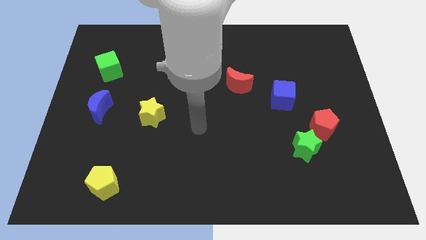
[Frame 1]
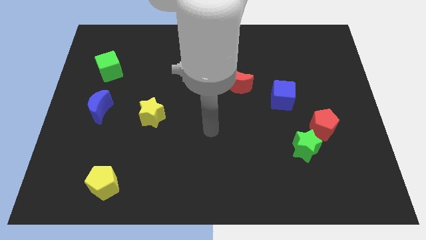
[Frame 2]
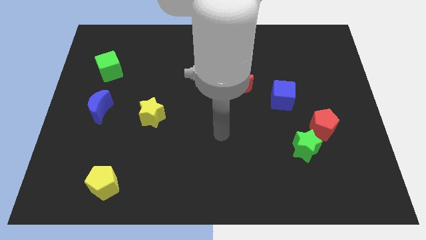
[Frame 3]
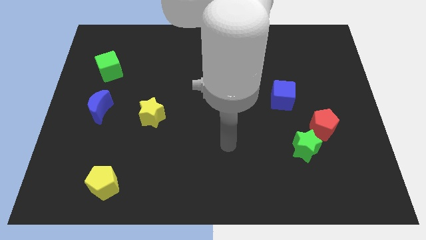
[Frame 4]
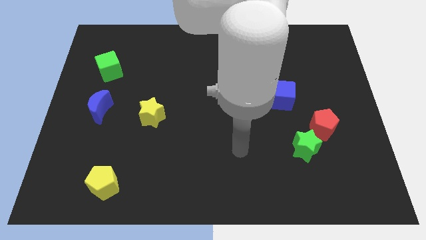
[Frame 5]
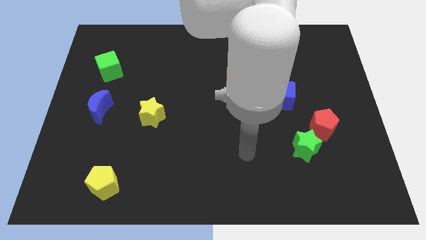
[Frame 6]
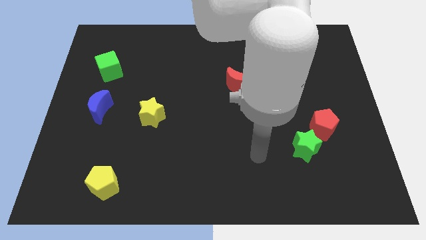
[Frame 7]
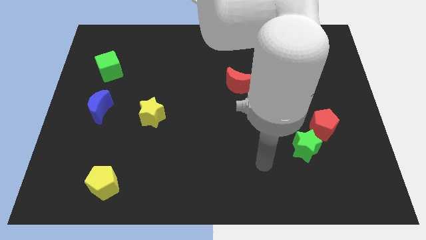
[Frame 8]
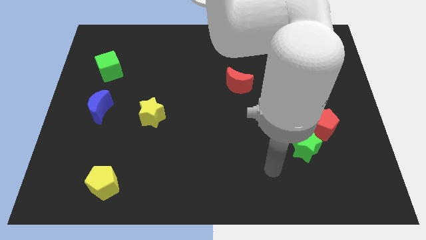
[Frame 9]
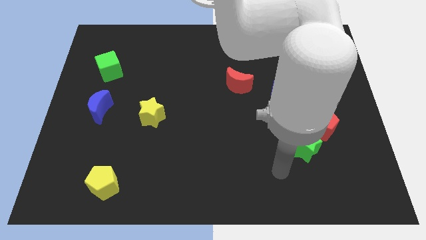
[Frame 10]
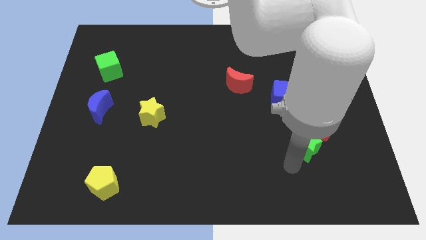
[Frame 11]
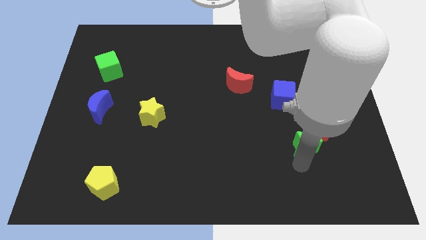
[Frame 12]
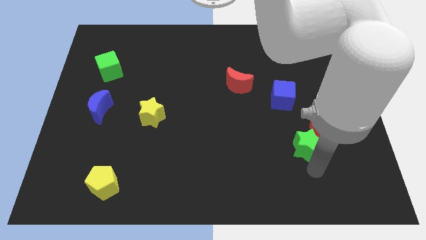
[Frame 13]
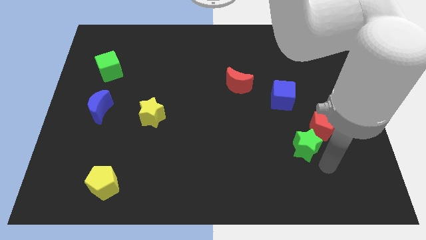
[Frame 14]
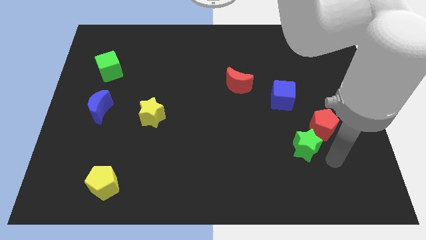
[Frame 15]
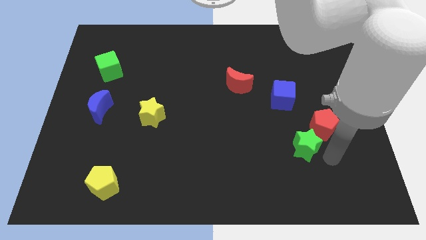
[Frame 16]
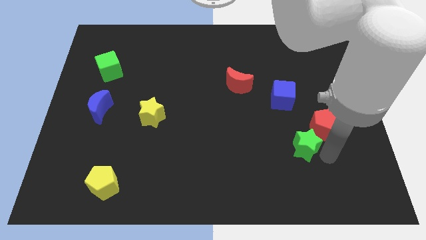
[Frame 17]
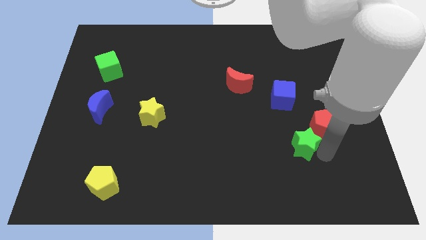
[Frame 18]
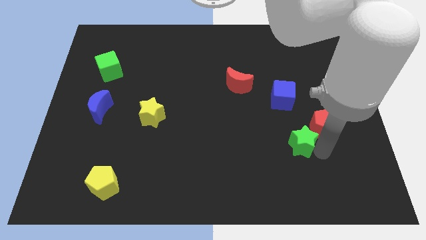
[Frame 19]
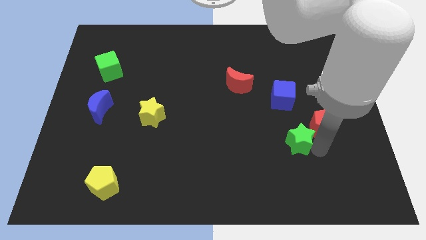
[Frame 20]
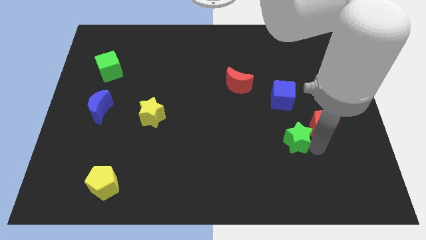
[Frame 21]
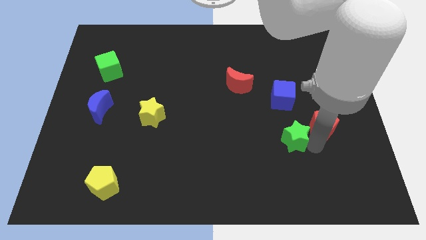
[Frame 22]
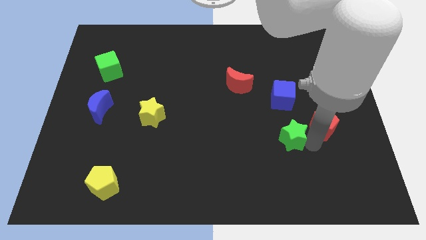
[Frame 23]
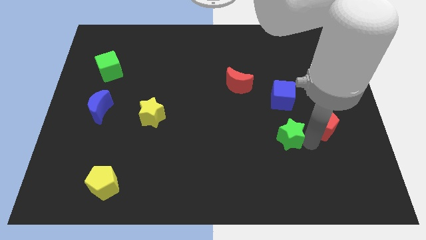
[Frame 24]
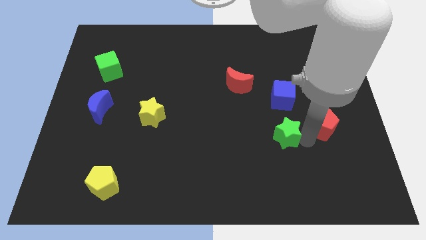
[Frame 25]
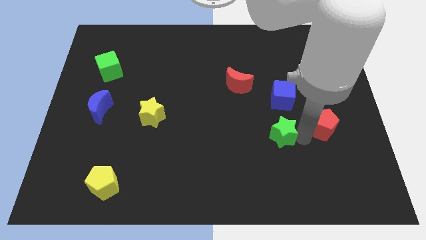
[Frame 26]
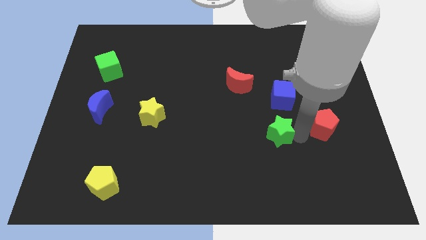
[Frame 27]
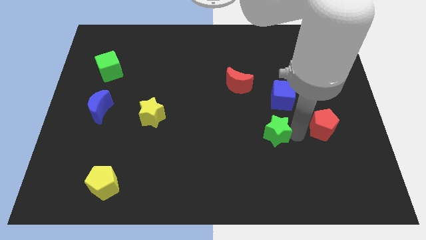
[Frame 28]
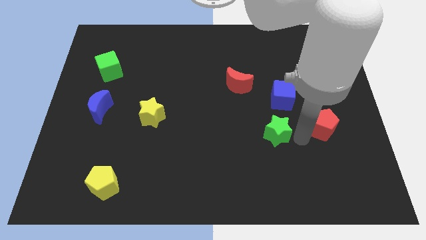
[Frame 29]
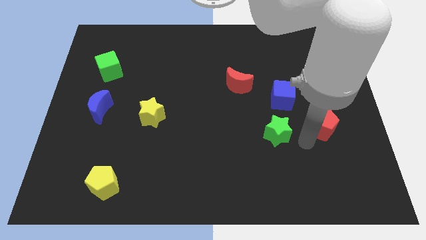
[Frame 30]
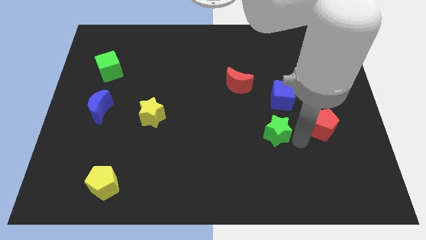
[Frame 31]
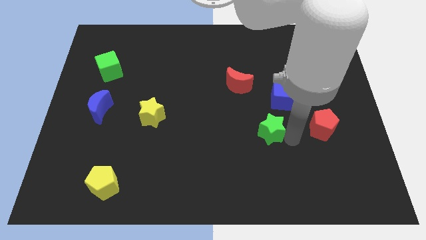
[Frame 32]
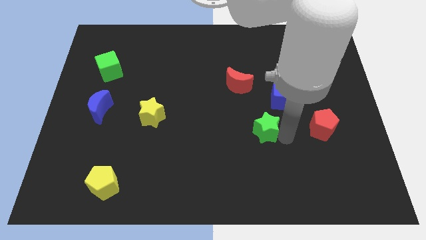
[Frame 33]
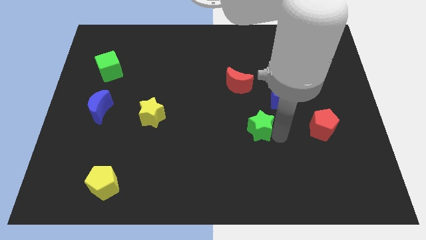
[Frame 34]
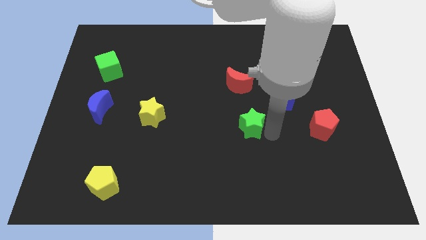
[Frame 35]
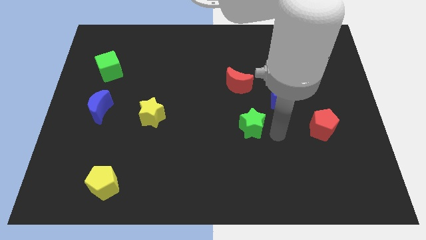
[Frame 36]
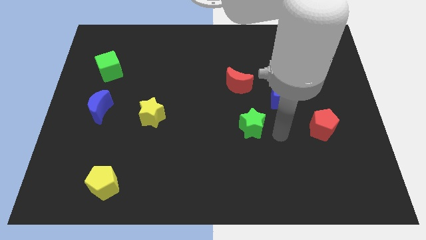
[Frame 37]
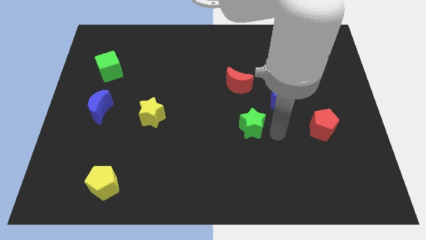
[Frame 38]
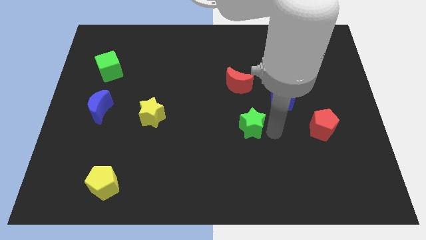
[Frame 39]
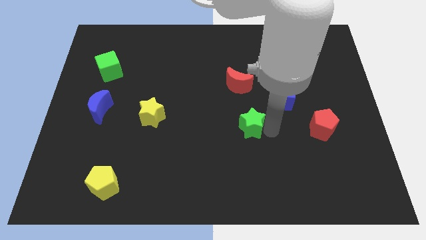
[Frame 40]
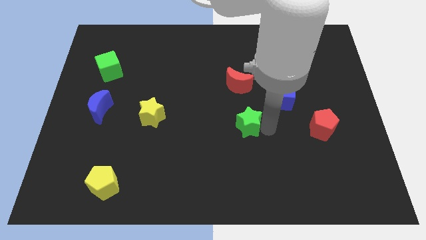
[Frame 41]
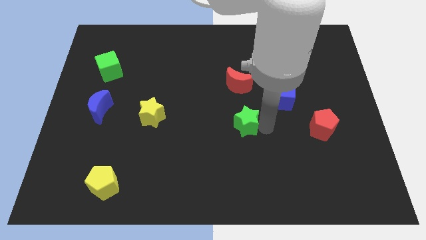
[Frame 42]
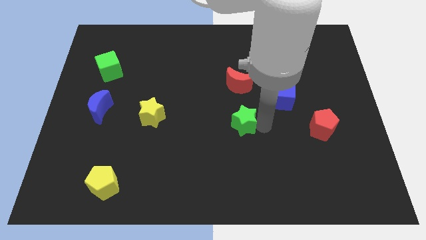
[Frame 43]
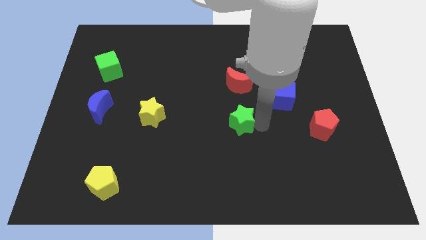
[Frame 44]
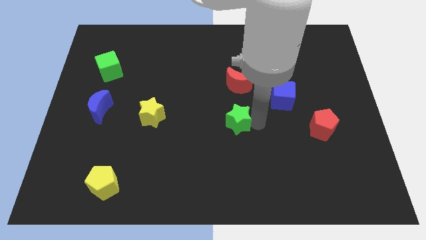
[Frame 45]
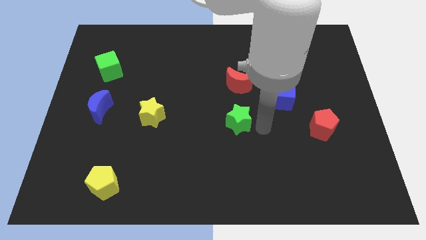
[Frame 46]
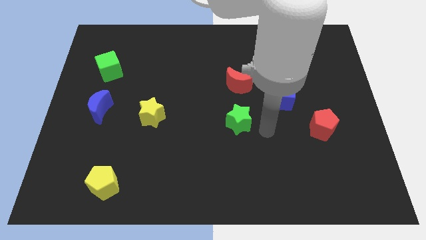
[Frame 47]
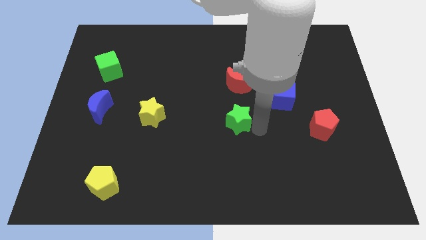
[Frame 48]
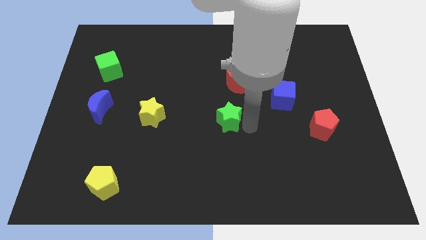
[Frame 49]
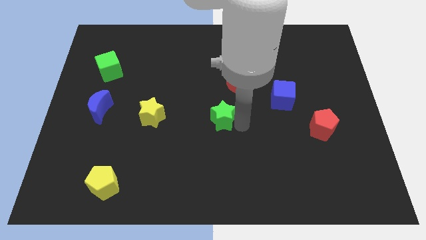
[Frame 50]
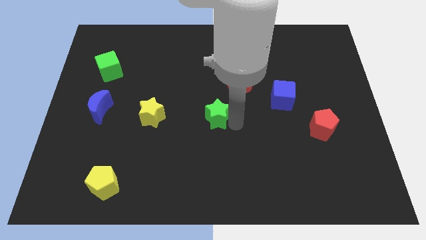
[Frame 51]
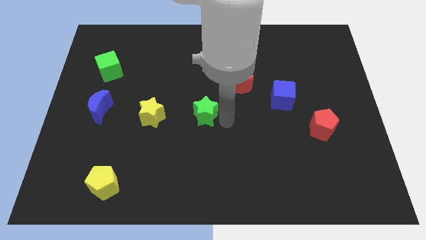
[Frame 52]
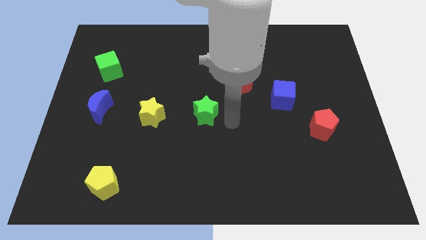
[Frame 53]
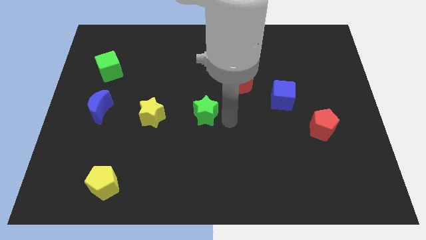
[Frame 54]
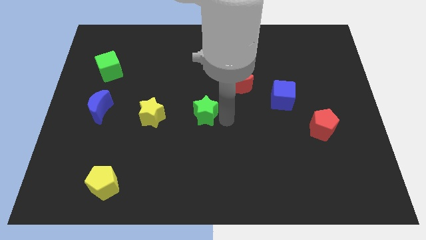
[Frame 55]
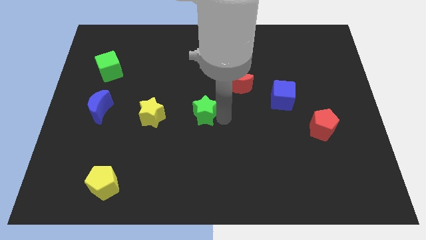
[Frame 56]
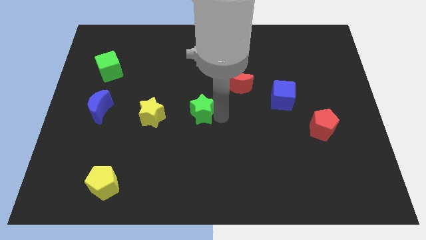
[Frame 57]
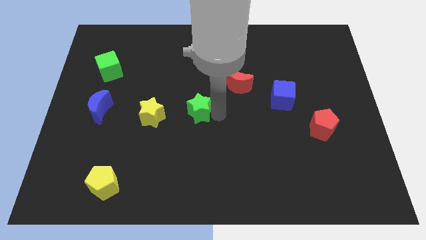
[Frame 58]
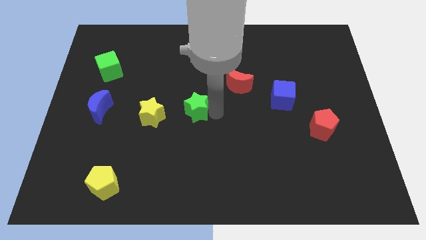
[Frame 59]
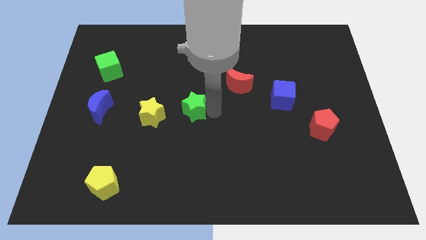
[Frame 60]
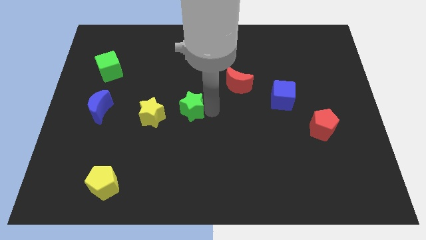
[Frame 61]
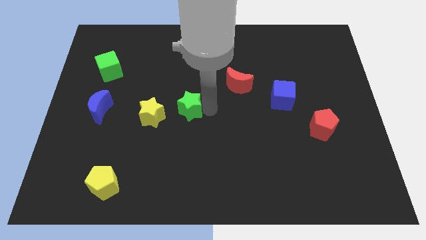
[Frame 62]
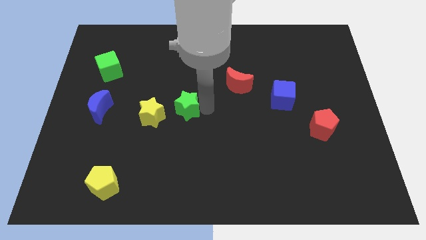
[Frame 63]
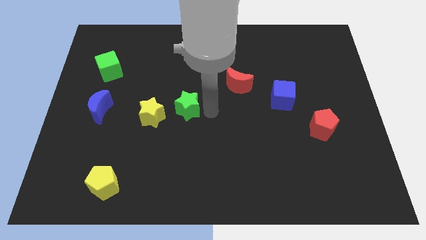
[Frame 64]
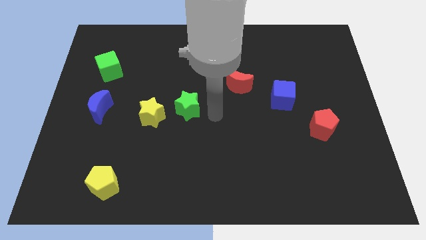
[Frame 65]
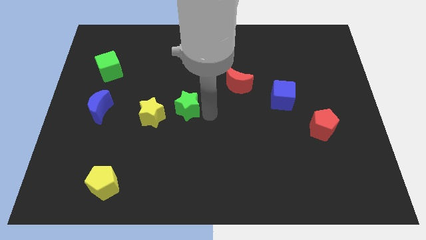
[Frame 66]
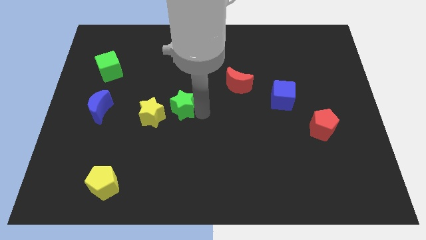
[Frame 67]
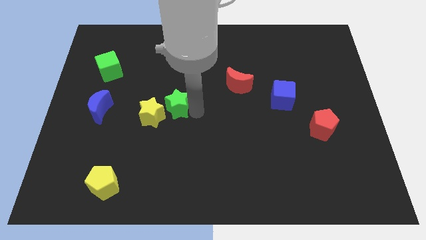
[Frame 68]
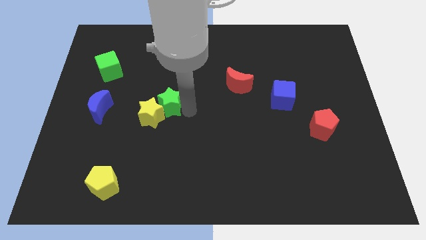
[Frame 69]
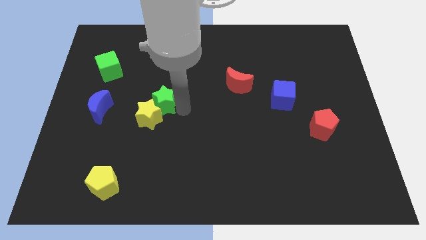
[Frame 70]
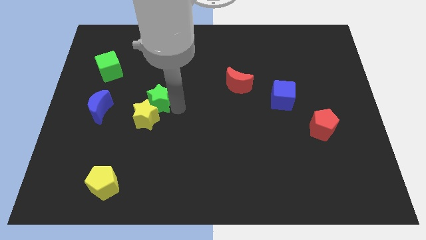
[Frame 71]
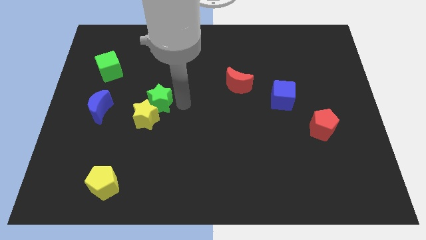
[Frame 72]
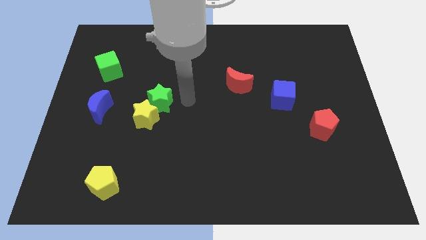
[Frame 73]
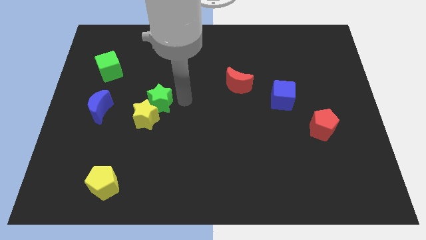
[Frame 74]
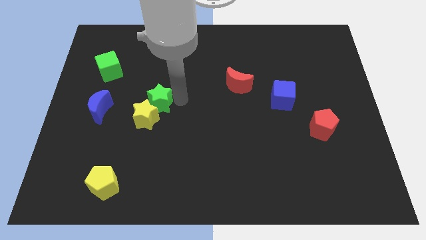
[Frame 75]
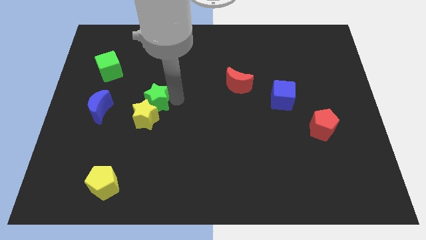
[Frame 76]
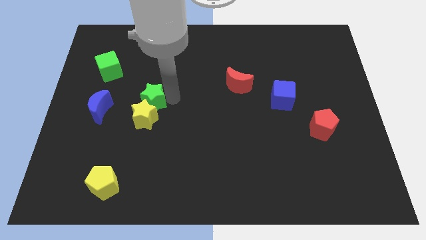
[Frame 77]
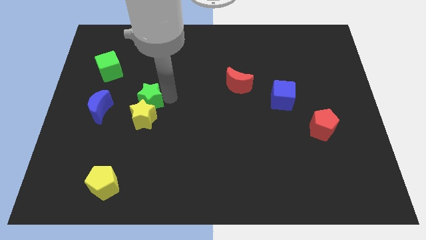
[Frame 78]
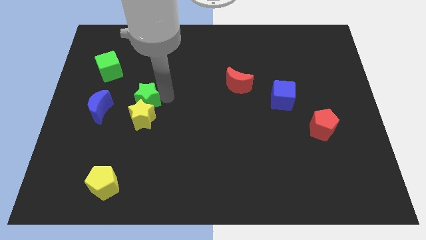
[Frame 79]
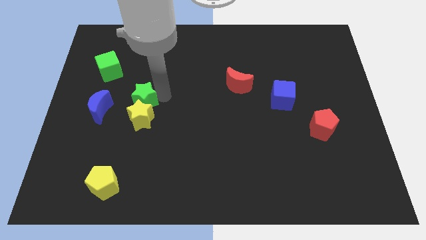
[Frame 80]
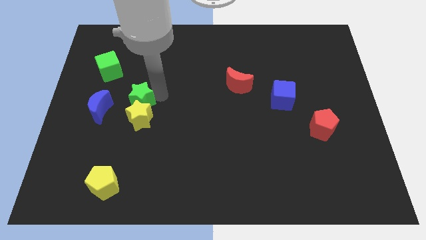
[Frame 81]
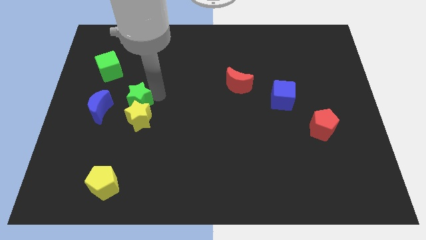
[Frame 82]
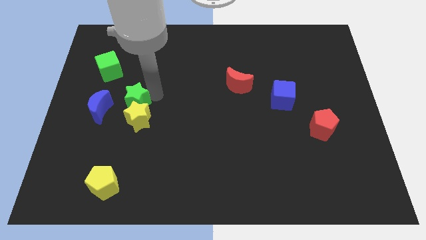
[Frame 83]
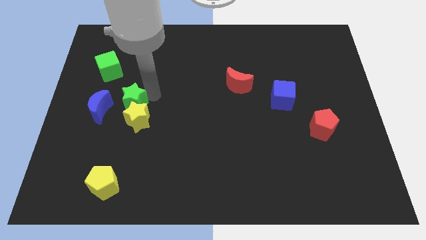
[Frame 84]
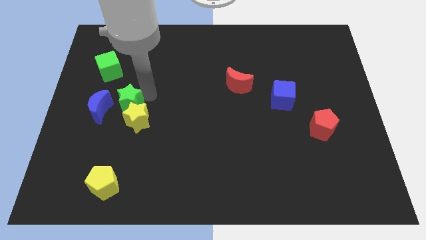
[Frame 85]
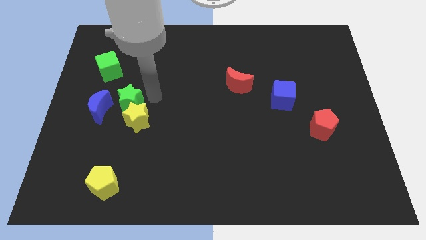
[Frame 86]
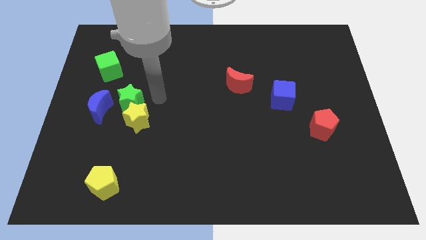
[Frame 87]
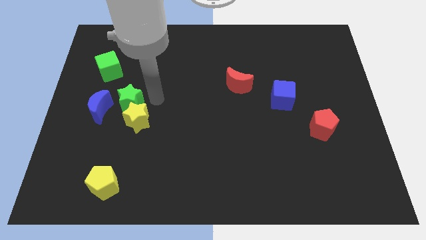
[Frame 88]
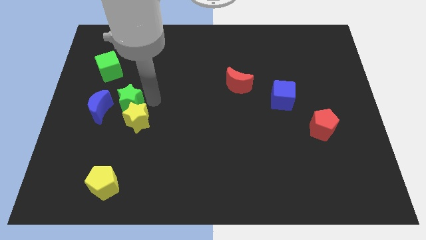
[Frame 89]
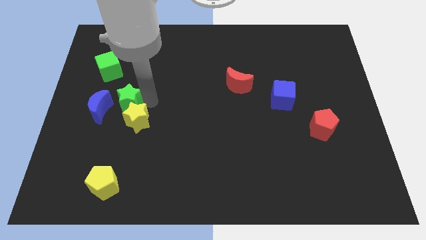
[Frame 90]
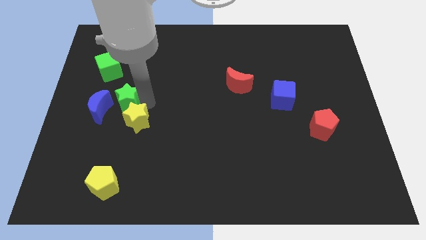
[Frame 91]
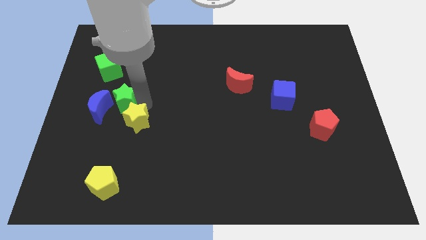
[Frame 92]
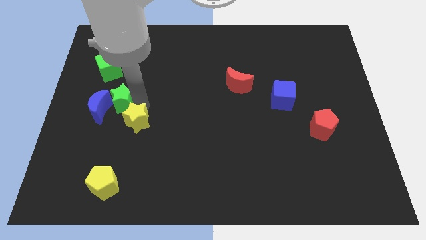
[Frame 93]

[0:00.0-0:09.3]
push the green star to the blue moon
